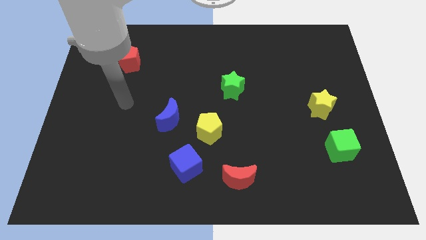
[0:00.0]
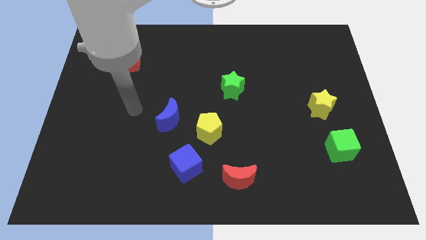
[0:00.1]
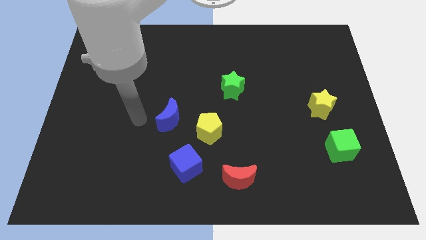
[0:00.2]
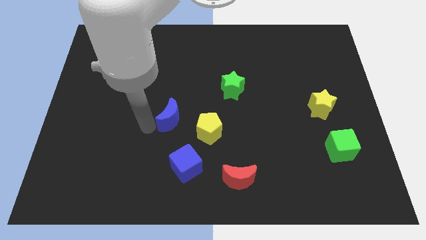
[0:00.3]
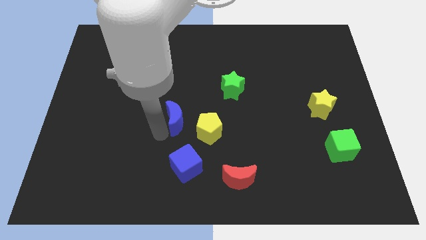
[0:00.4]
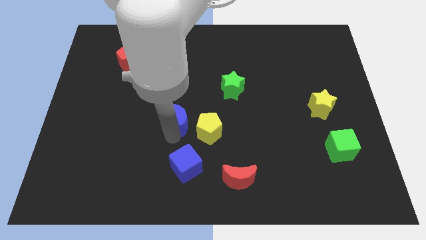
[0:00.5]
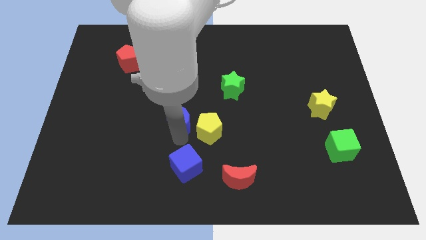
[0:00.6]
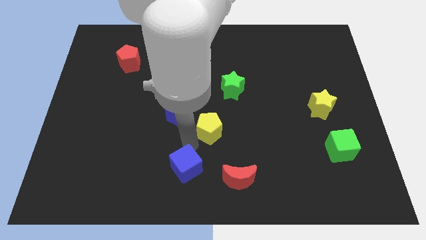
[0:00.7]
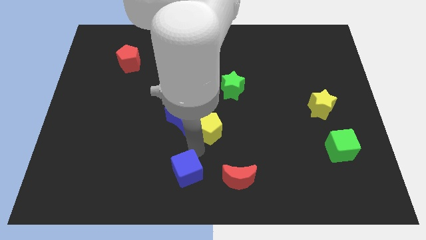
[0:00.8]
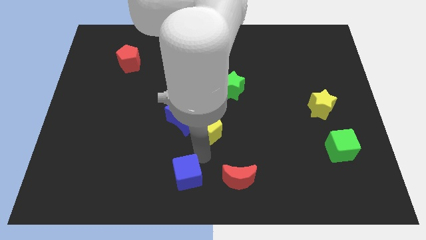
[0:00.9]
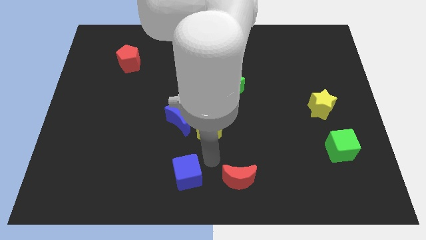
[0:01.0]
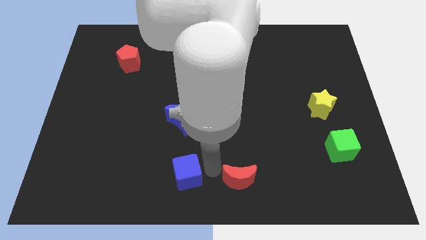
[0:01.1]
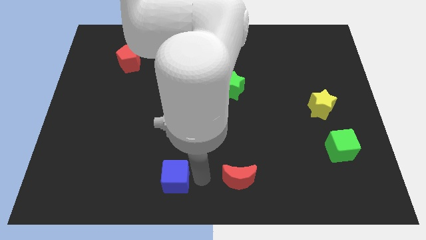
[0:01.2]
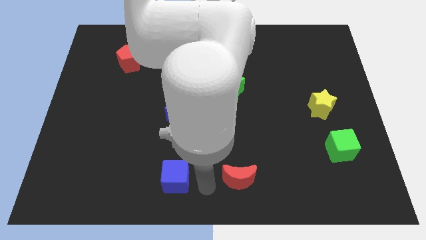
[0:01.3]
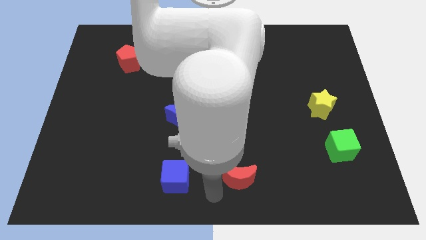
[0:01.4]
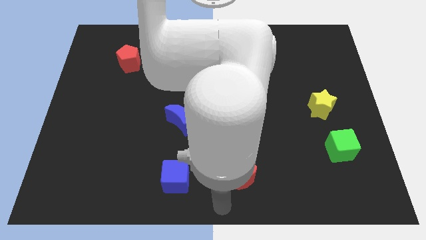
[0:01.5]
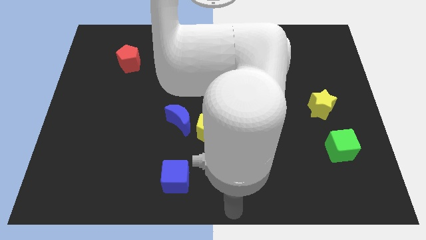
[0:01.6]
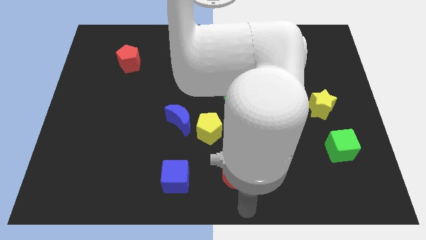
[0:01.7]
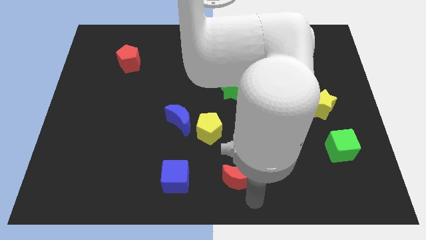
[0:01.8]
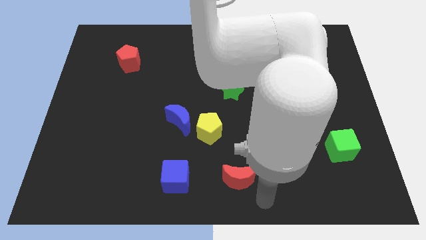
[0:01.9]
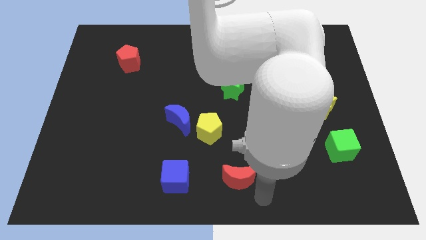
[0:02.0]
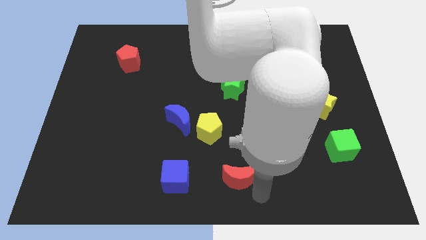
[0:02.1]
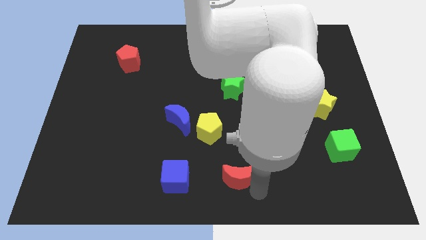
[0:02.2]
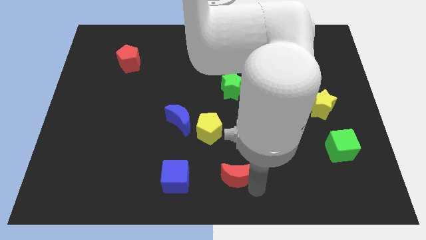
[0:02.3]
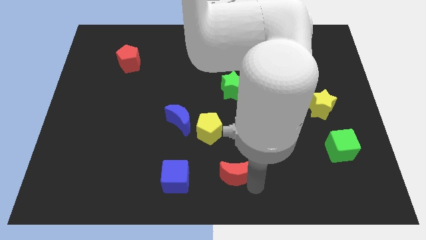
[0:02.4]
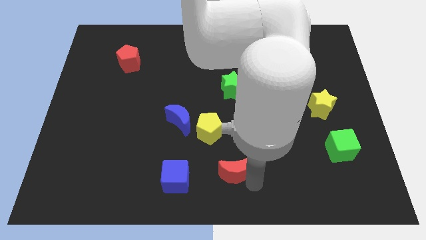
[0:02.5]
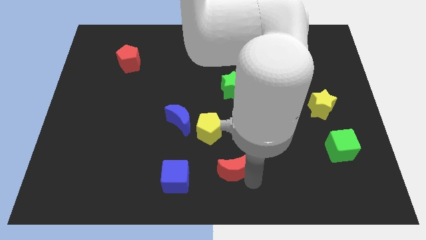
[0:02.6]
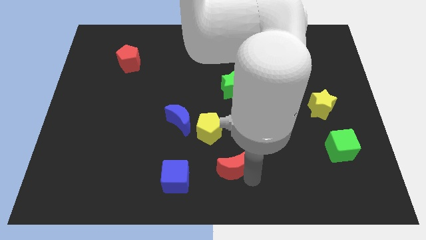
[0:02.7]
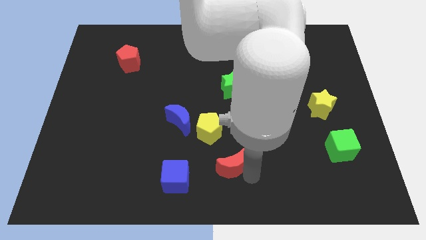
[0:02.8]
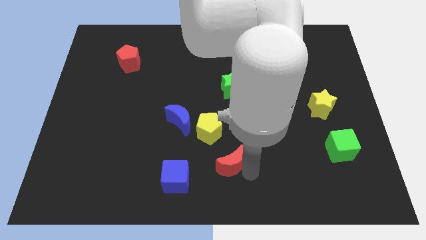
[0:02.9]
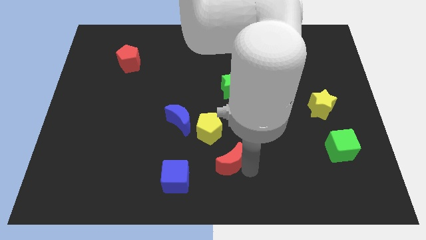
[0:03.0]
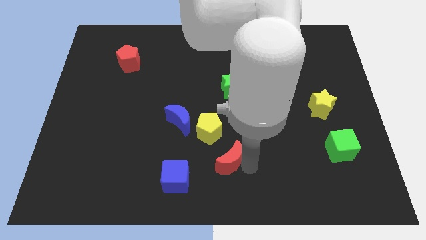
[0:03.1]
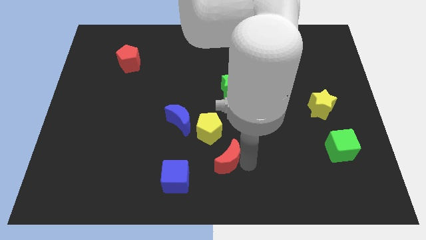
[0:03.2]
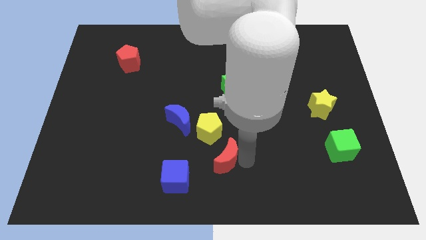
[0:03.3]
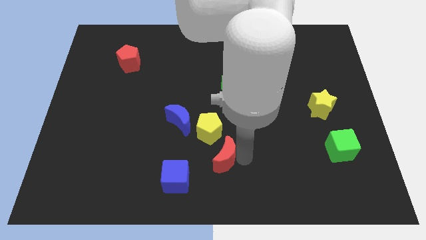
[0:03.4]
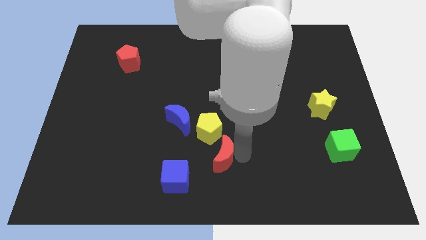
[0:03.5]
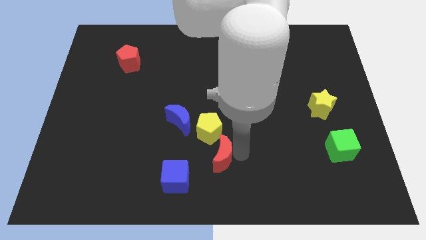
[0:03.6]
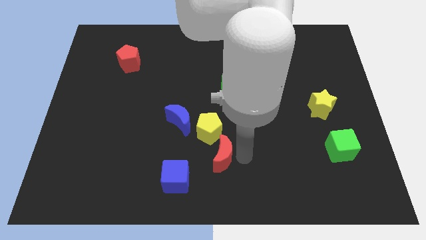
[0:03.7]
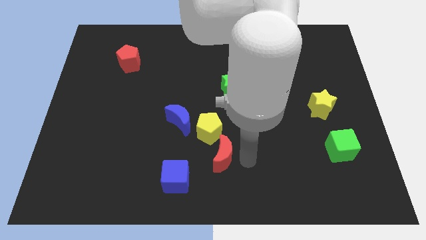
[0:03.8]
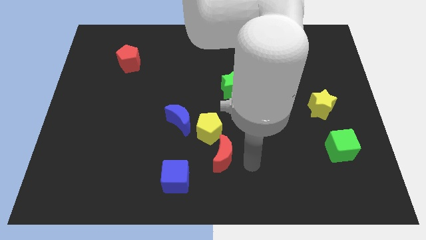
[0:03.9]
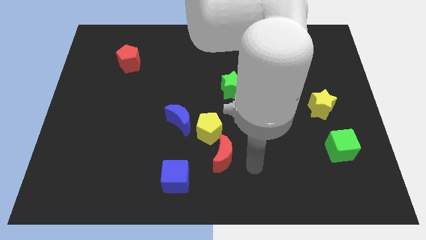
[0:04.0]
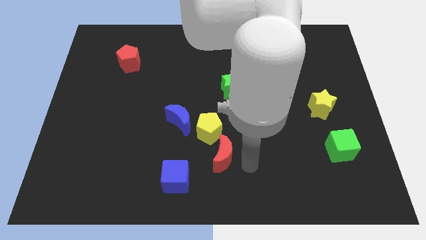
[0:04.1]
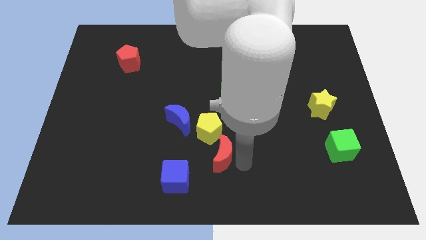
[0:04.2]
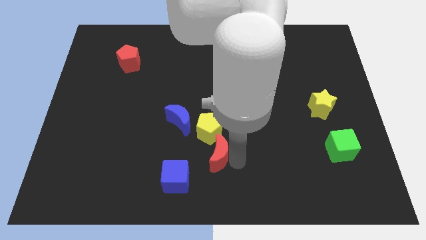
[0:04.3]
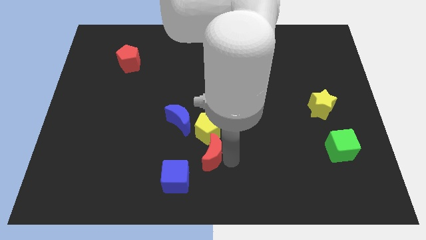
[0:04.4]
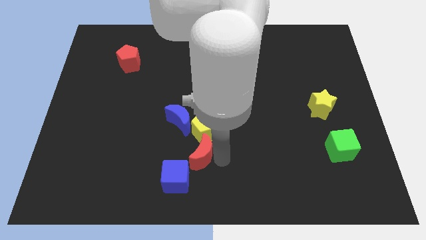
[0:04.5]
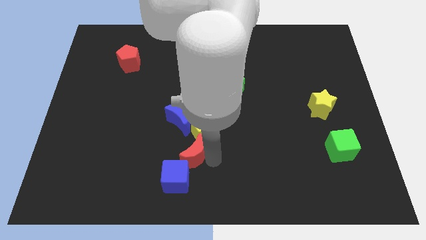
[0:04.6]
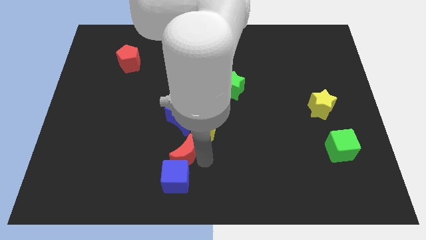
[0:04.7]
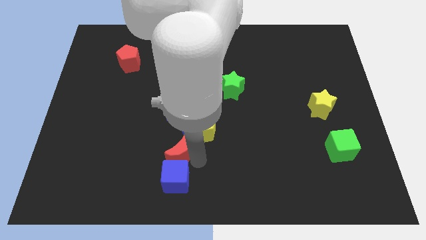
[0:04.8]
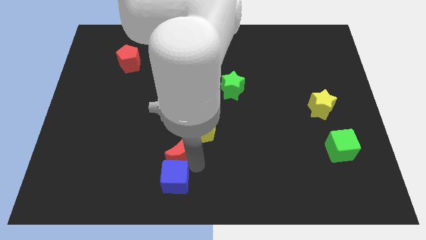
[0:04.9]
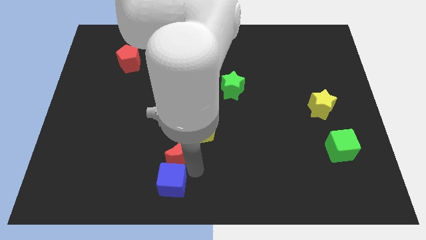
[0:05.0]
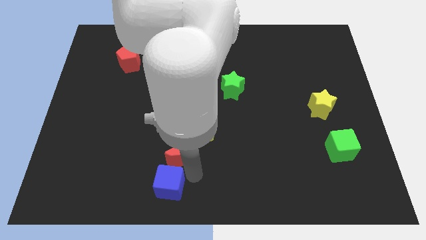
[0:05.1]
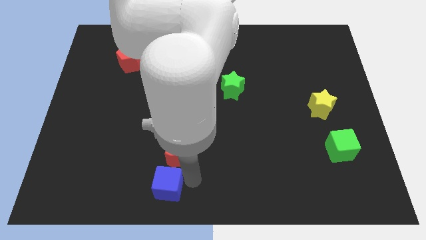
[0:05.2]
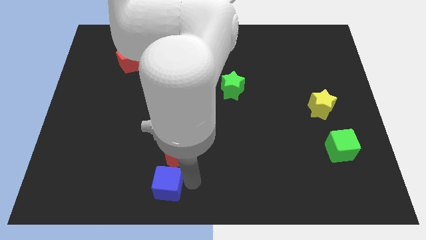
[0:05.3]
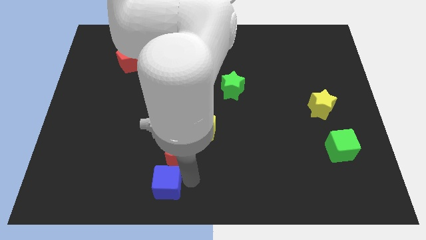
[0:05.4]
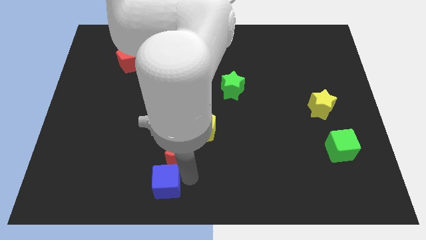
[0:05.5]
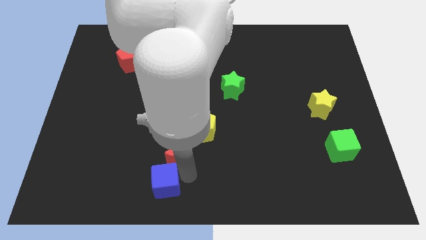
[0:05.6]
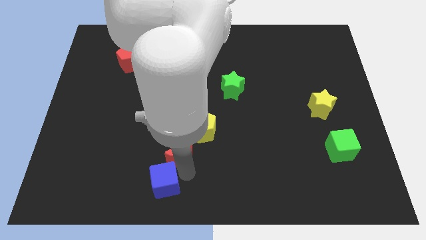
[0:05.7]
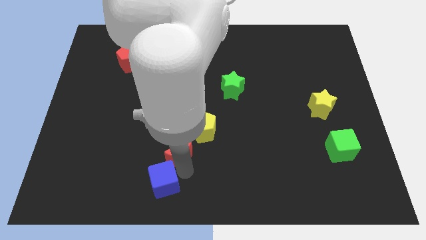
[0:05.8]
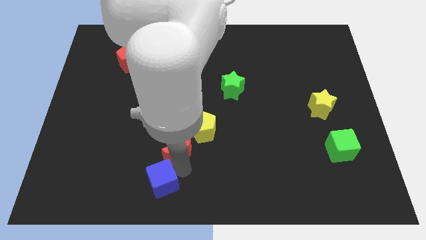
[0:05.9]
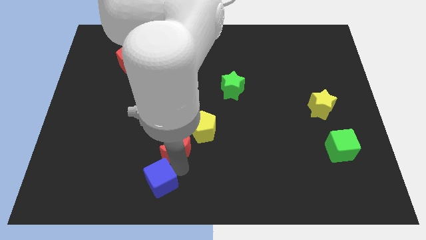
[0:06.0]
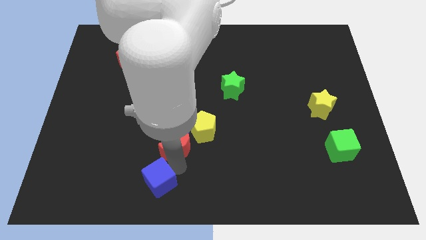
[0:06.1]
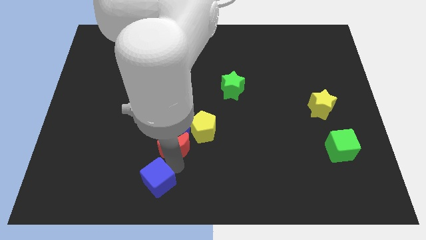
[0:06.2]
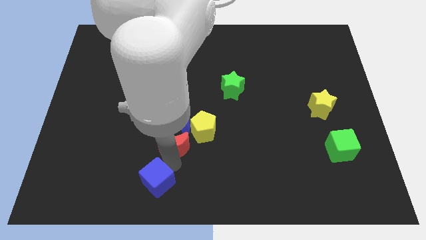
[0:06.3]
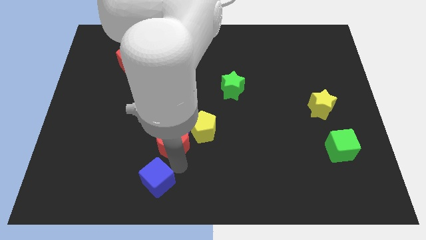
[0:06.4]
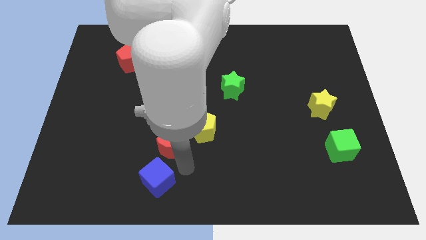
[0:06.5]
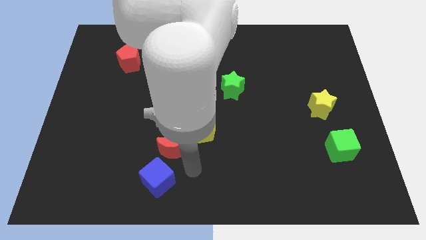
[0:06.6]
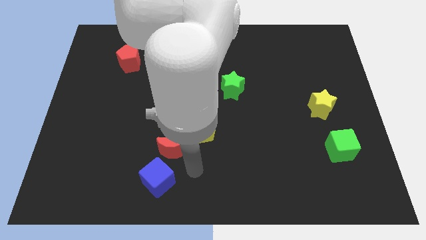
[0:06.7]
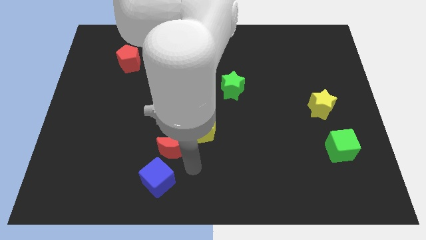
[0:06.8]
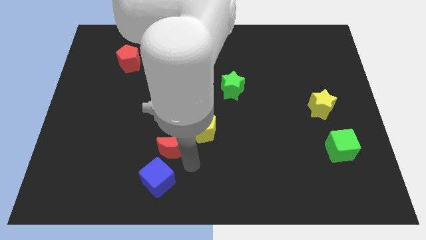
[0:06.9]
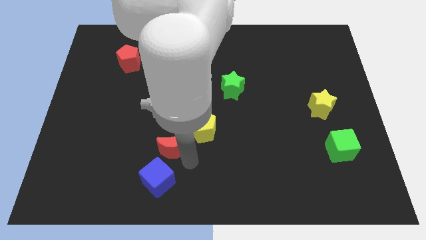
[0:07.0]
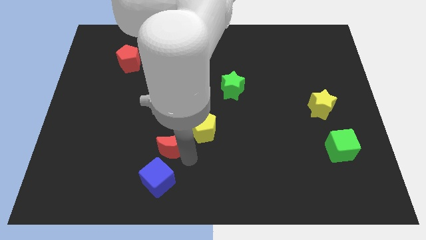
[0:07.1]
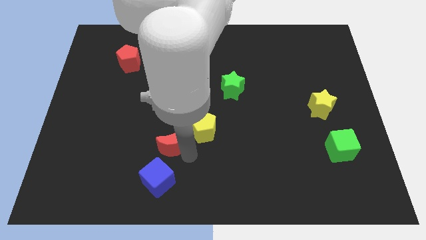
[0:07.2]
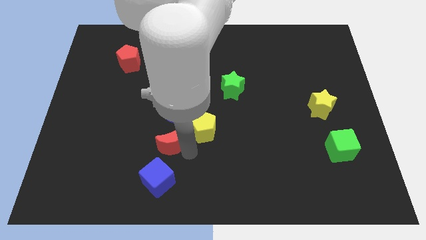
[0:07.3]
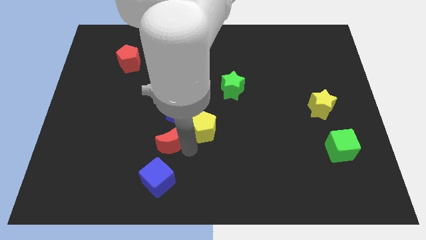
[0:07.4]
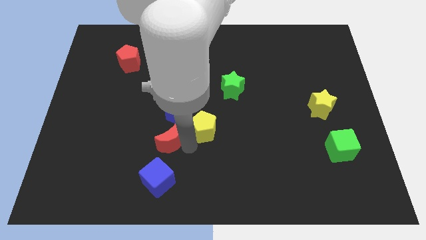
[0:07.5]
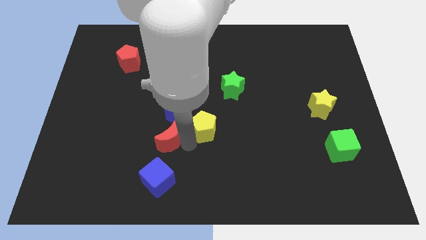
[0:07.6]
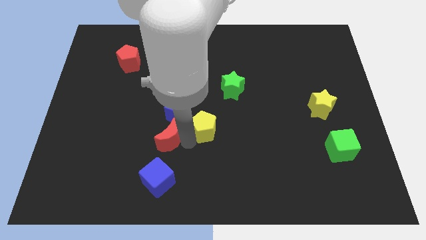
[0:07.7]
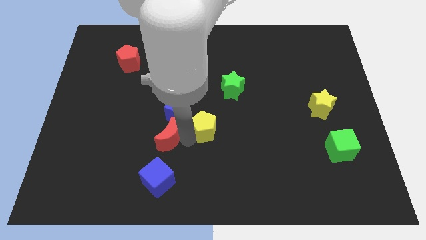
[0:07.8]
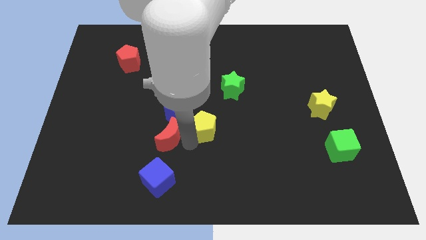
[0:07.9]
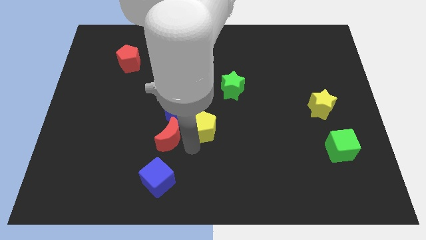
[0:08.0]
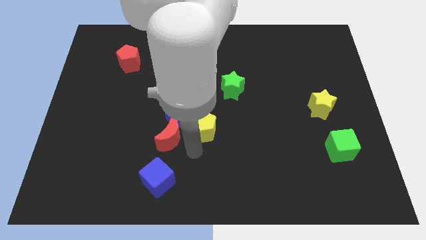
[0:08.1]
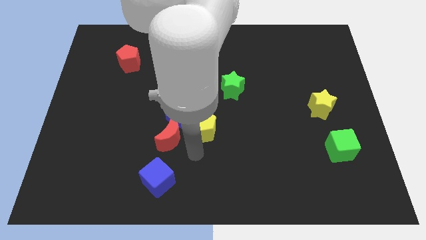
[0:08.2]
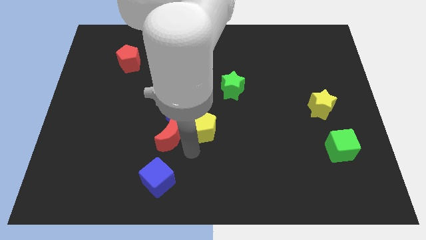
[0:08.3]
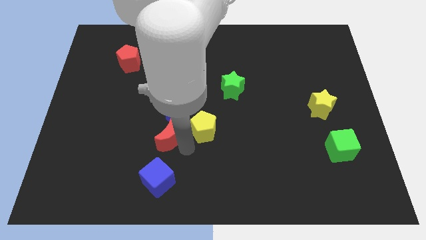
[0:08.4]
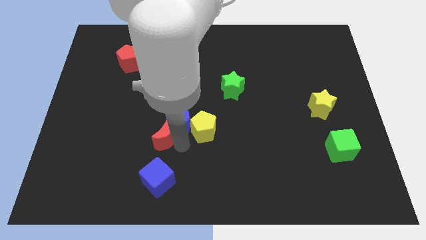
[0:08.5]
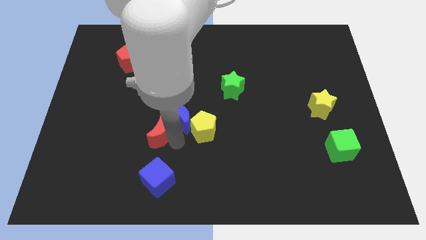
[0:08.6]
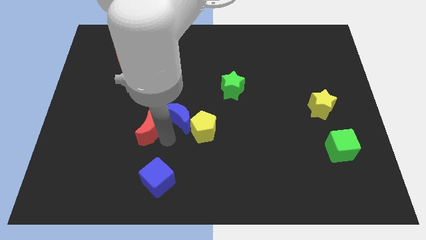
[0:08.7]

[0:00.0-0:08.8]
move the red moon diagonally up and left
